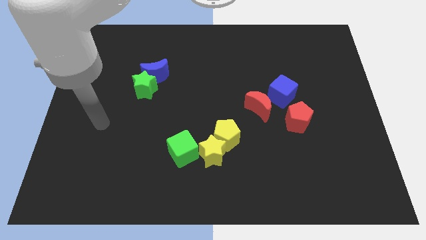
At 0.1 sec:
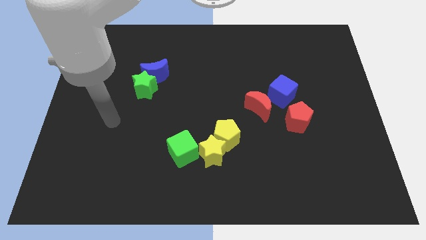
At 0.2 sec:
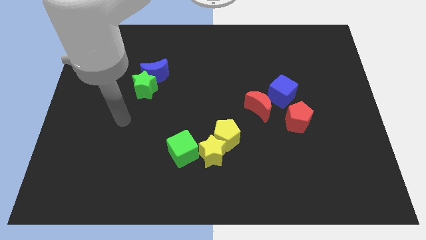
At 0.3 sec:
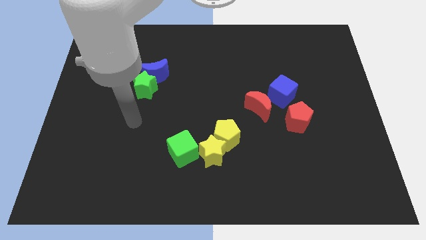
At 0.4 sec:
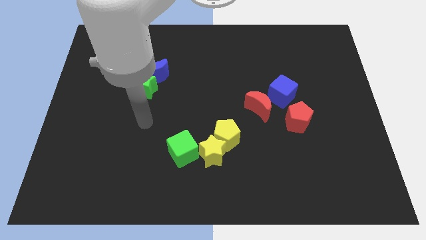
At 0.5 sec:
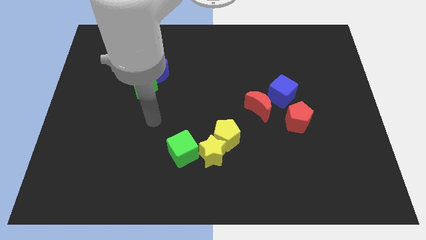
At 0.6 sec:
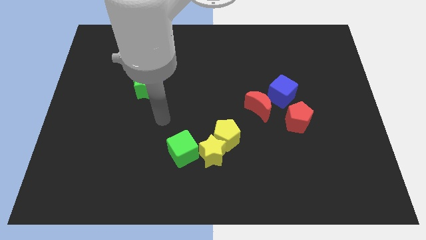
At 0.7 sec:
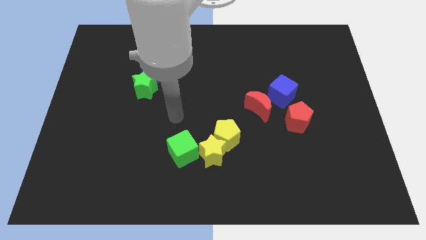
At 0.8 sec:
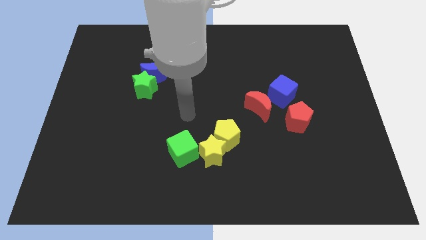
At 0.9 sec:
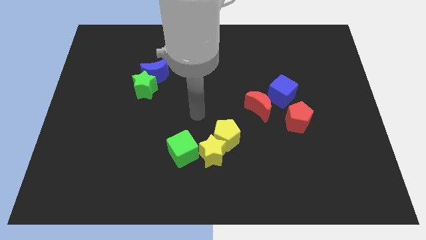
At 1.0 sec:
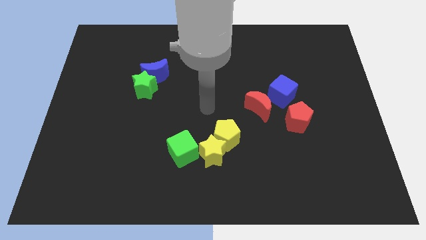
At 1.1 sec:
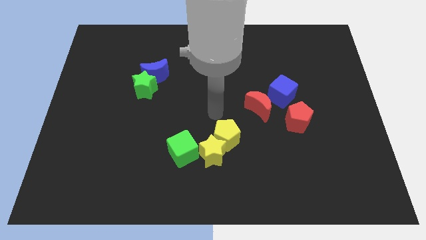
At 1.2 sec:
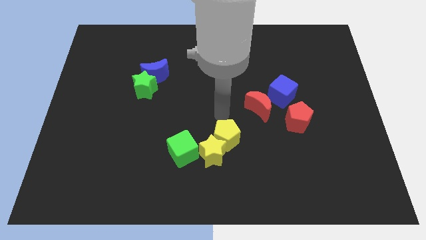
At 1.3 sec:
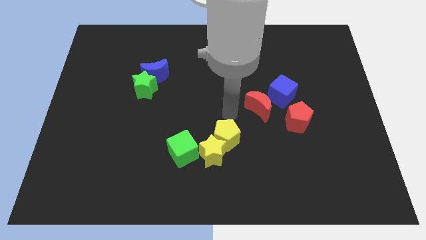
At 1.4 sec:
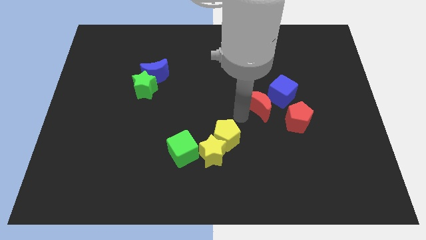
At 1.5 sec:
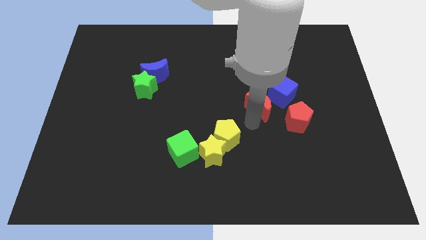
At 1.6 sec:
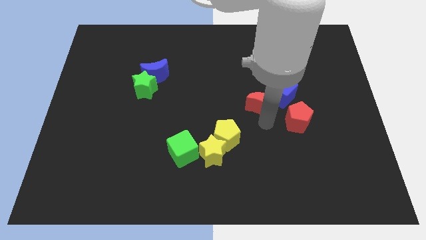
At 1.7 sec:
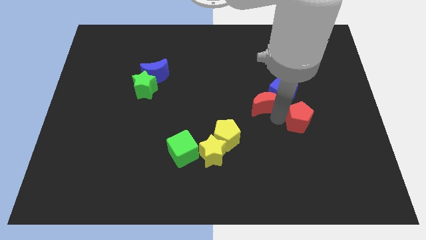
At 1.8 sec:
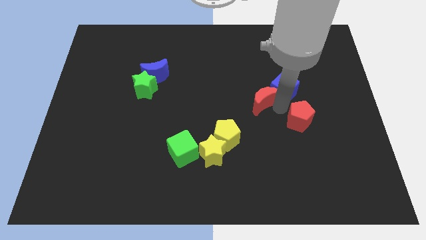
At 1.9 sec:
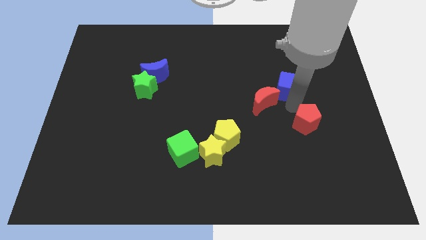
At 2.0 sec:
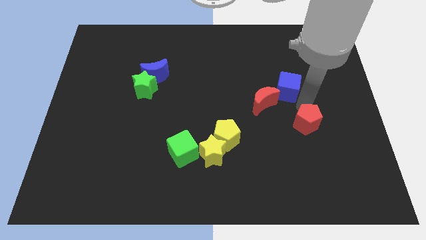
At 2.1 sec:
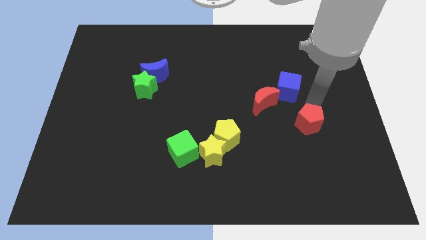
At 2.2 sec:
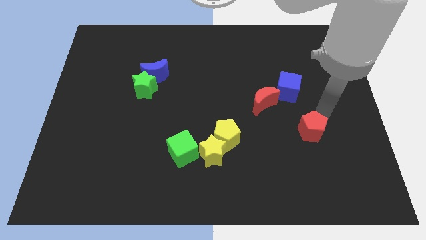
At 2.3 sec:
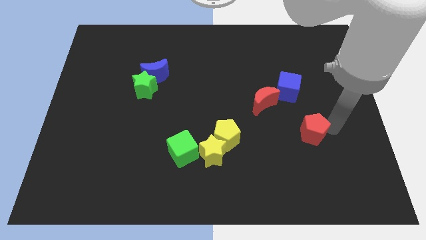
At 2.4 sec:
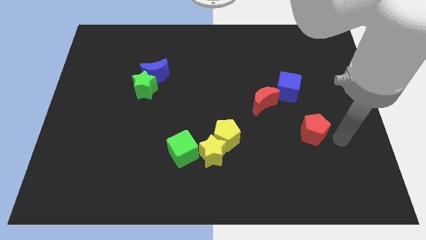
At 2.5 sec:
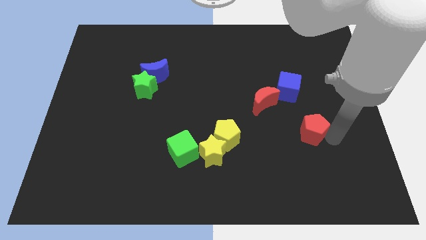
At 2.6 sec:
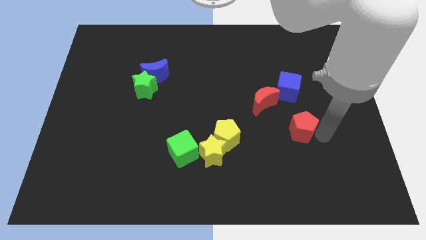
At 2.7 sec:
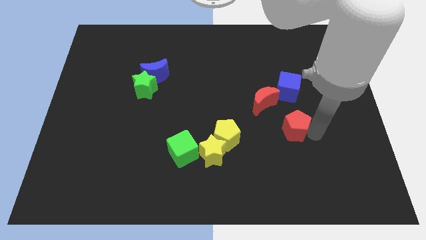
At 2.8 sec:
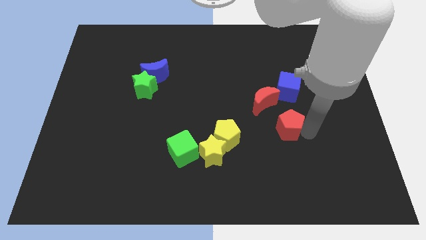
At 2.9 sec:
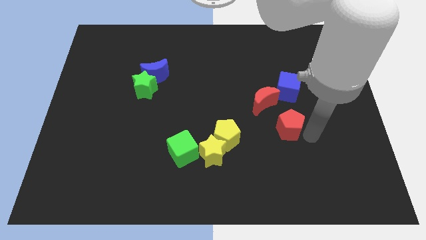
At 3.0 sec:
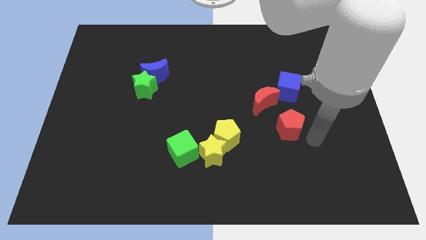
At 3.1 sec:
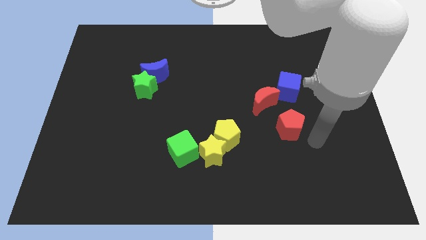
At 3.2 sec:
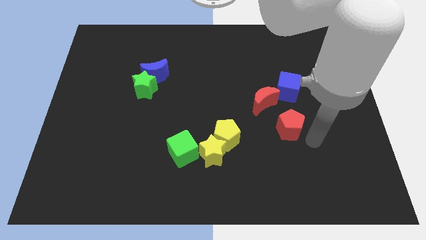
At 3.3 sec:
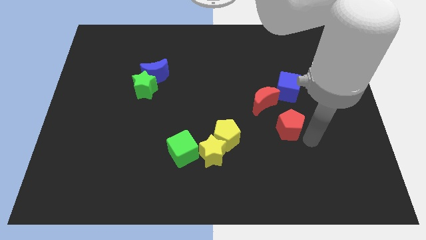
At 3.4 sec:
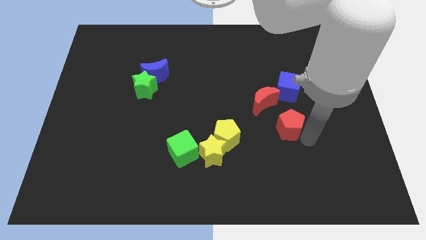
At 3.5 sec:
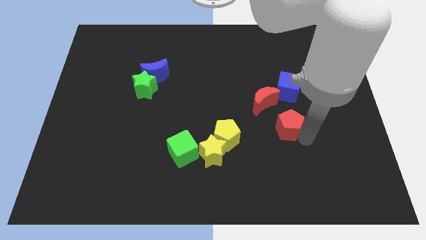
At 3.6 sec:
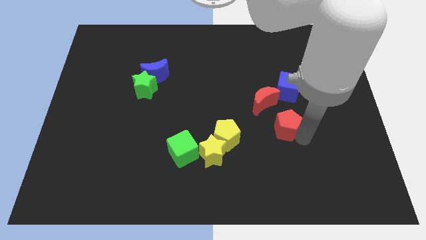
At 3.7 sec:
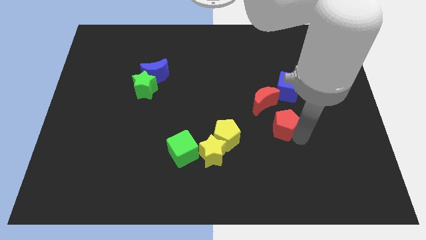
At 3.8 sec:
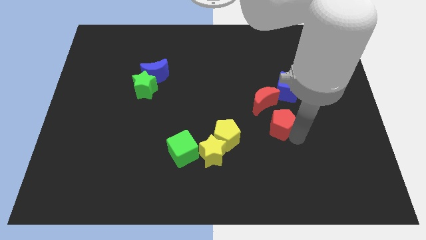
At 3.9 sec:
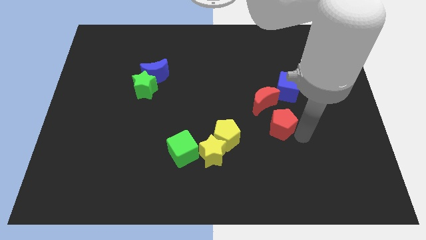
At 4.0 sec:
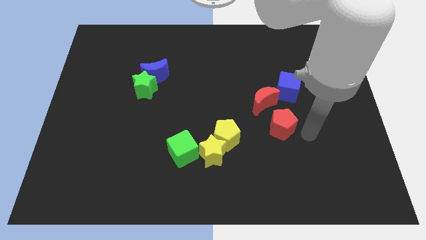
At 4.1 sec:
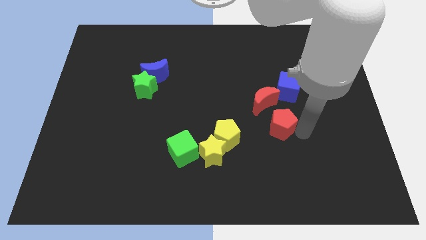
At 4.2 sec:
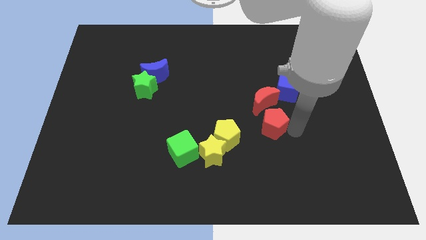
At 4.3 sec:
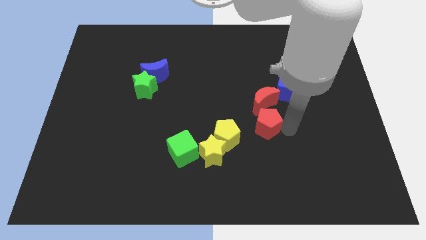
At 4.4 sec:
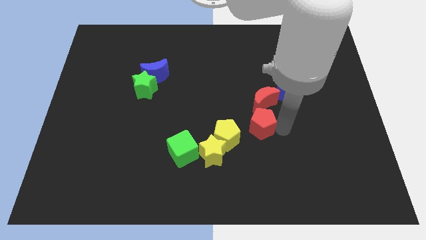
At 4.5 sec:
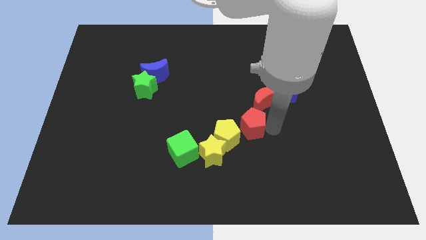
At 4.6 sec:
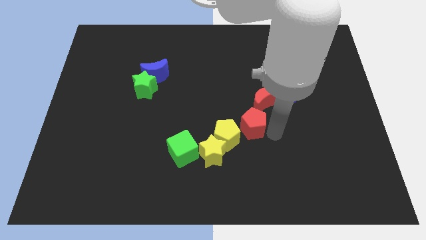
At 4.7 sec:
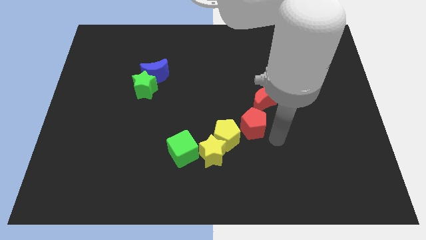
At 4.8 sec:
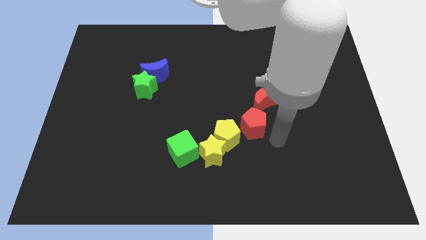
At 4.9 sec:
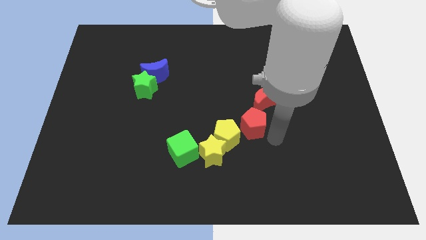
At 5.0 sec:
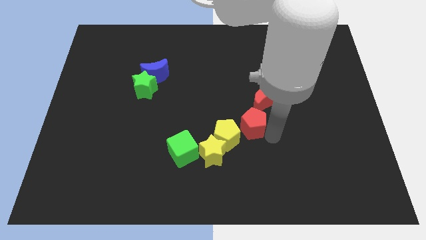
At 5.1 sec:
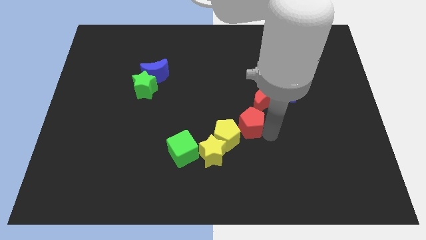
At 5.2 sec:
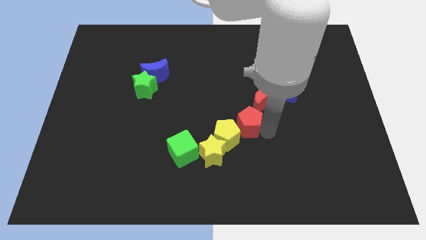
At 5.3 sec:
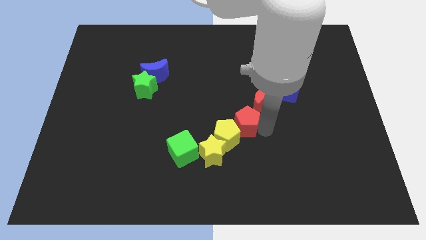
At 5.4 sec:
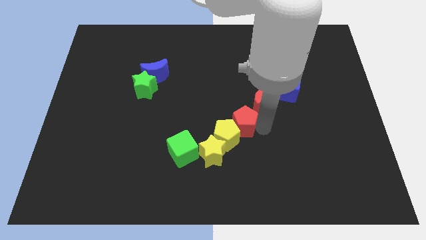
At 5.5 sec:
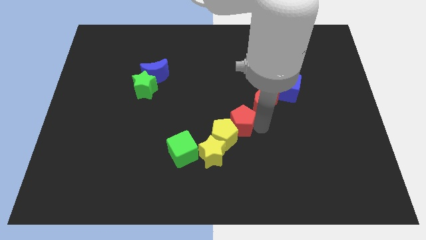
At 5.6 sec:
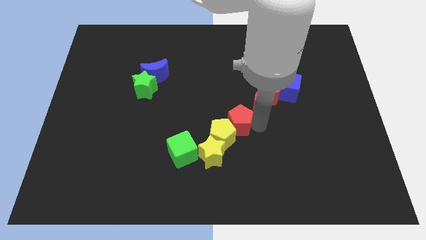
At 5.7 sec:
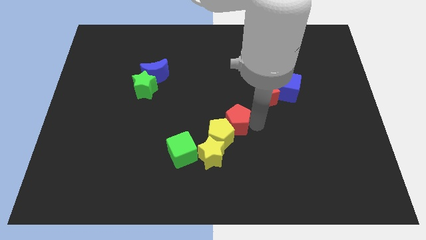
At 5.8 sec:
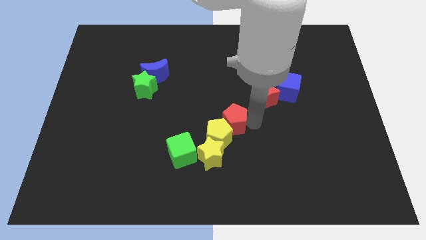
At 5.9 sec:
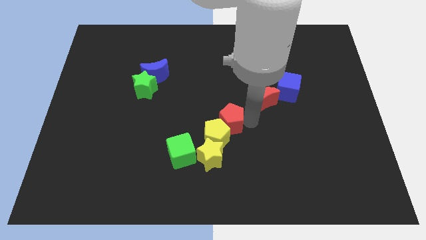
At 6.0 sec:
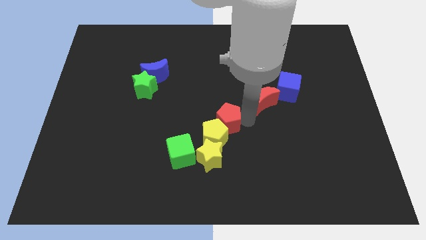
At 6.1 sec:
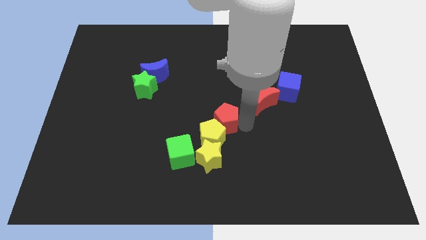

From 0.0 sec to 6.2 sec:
put the red pentagon to the top right of the green cube
